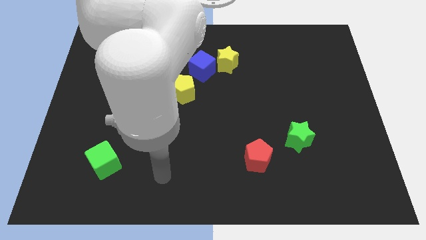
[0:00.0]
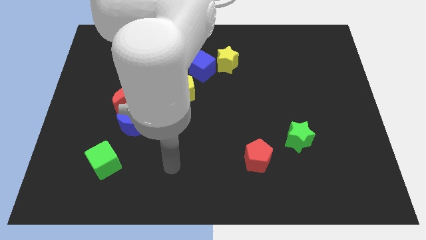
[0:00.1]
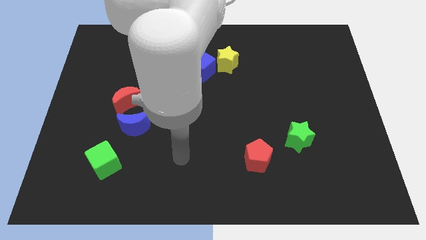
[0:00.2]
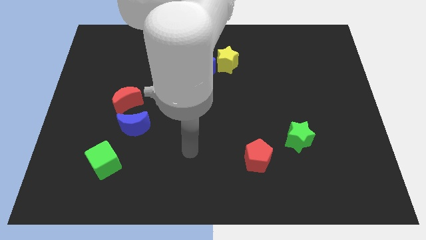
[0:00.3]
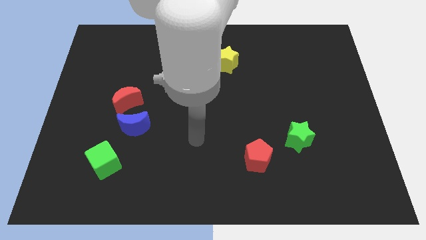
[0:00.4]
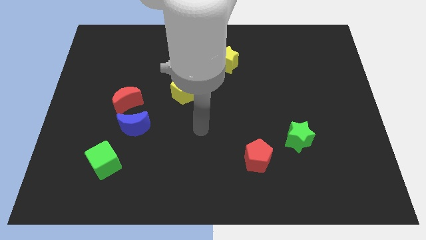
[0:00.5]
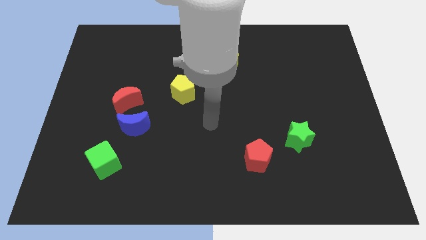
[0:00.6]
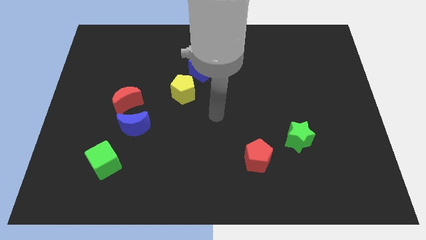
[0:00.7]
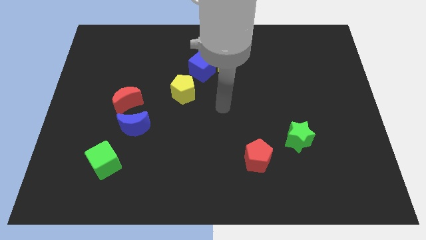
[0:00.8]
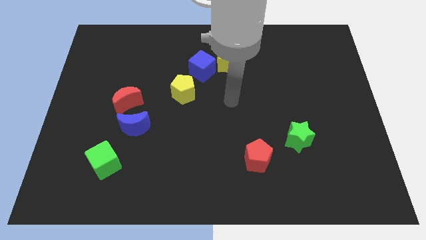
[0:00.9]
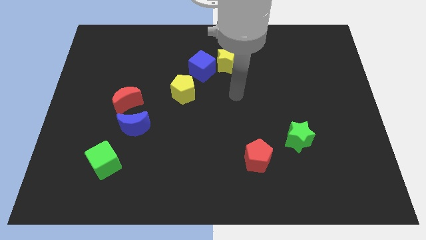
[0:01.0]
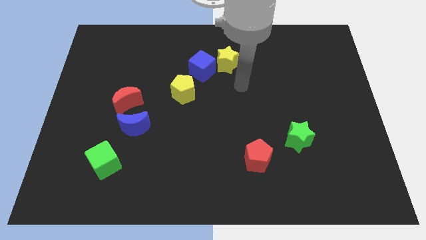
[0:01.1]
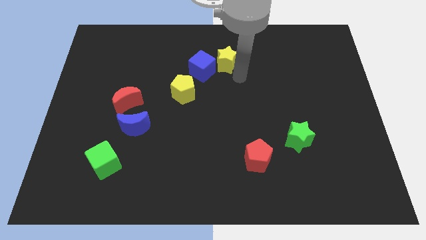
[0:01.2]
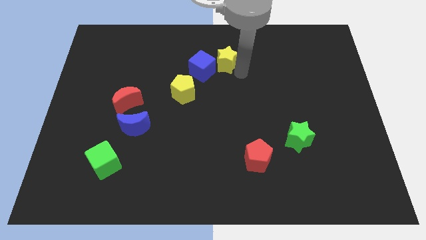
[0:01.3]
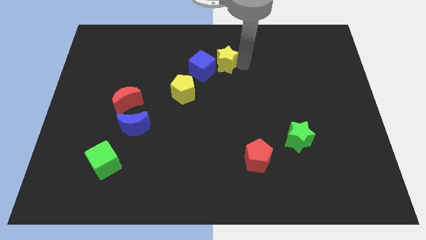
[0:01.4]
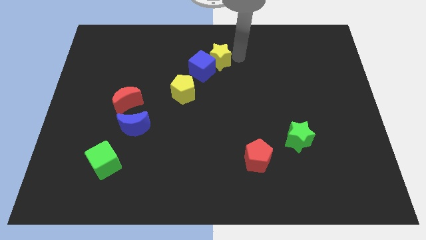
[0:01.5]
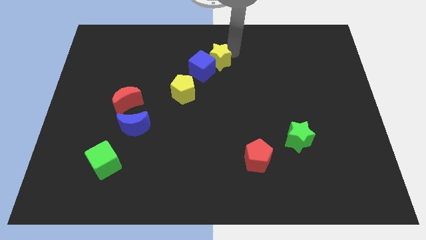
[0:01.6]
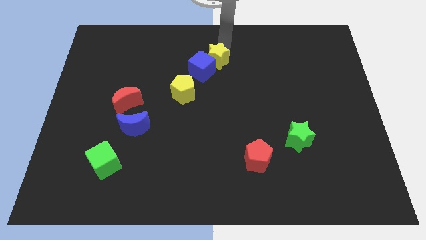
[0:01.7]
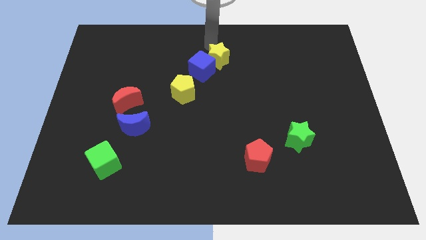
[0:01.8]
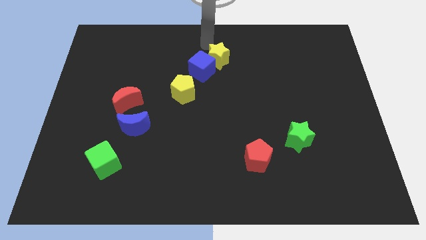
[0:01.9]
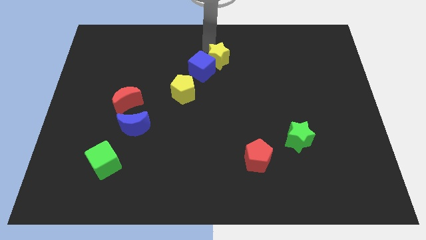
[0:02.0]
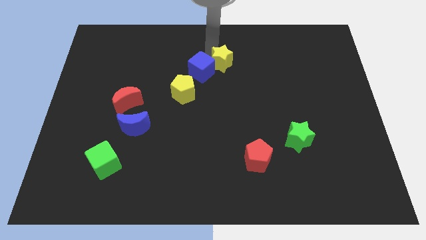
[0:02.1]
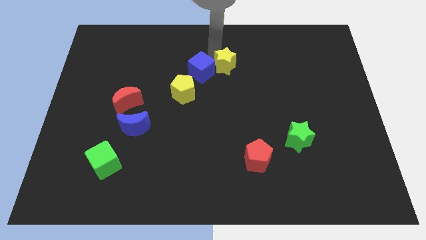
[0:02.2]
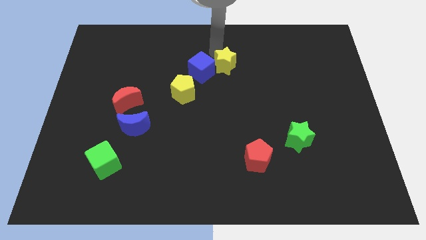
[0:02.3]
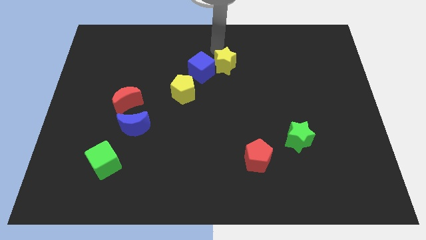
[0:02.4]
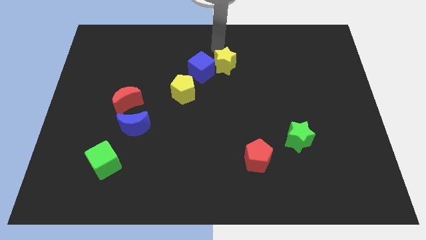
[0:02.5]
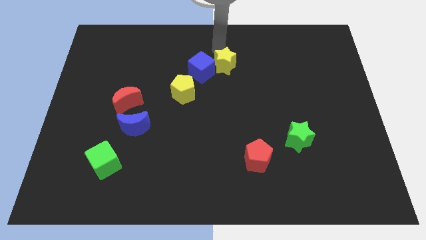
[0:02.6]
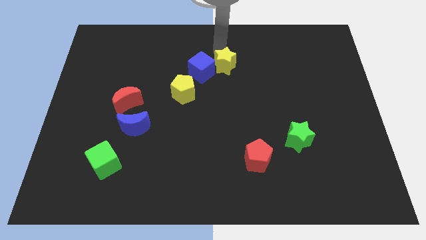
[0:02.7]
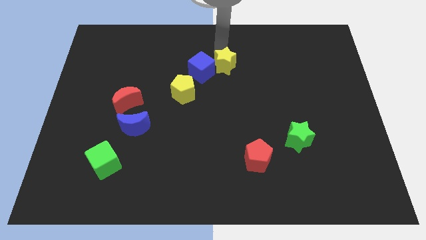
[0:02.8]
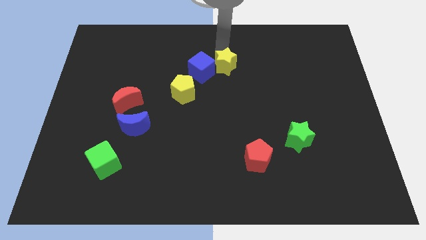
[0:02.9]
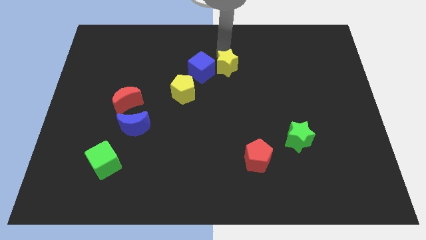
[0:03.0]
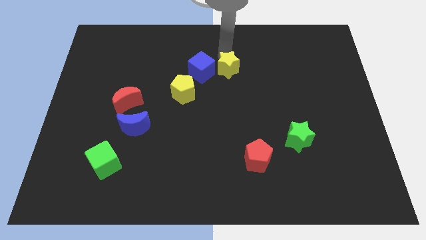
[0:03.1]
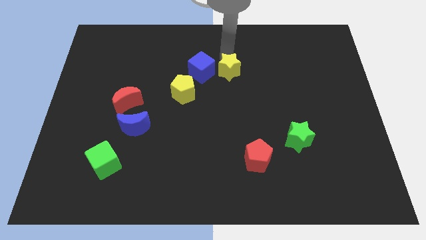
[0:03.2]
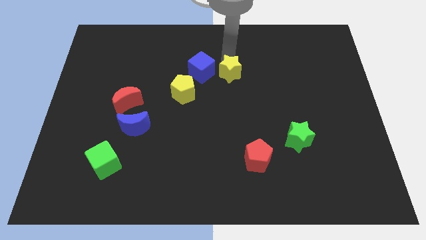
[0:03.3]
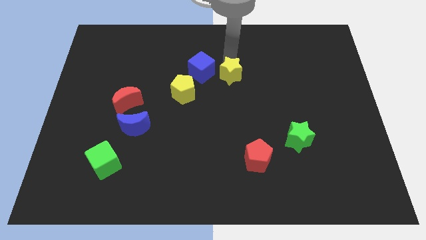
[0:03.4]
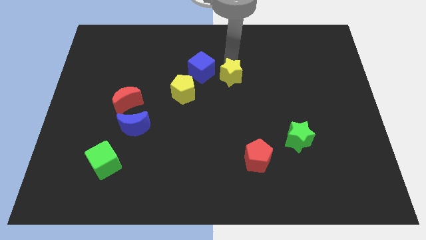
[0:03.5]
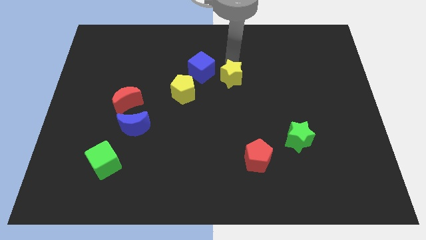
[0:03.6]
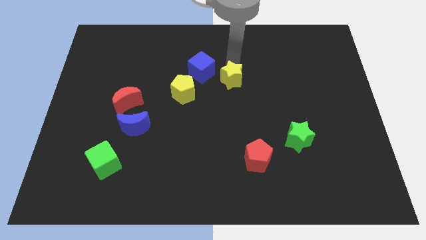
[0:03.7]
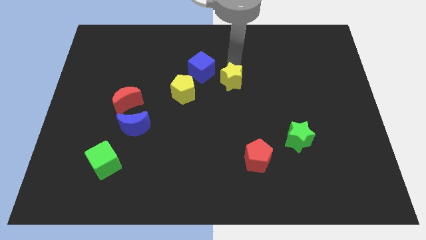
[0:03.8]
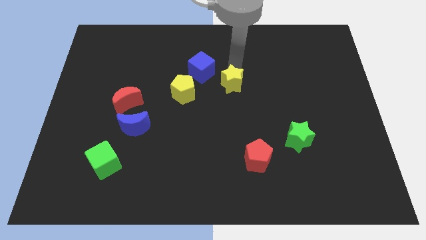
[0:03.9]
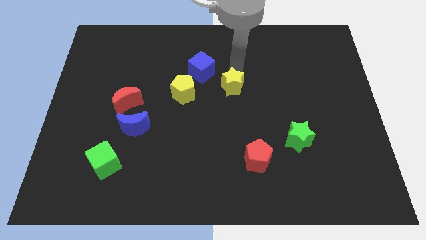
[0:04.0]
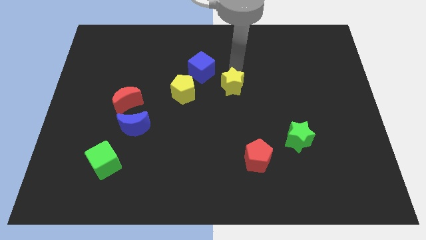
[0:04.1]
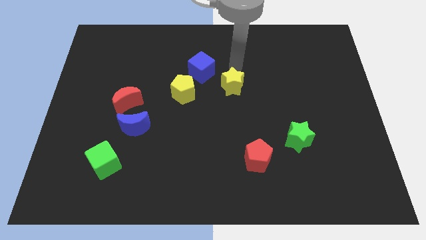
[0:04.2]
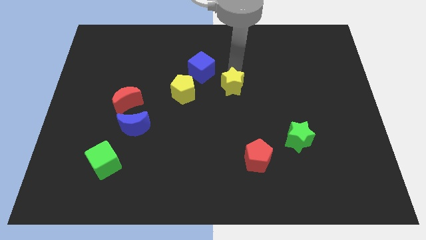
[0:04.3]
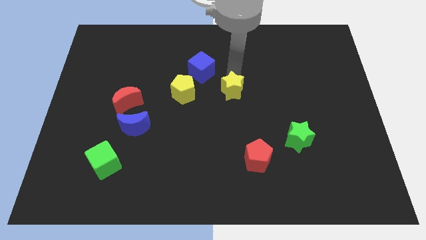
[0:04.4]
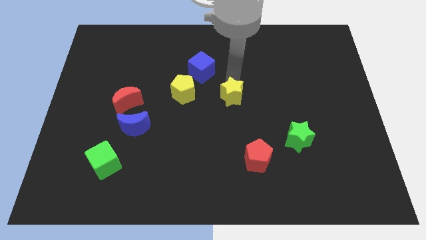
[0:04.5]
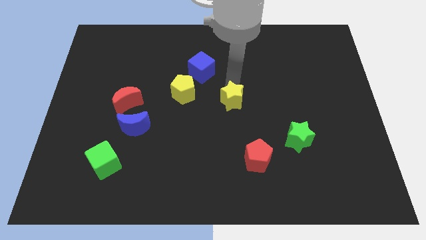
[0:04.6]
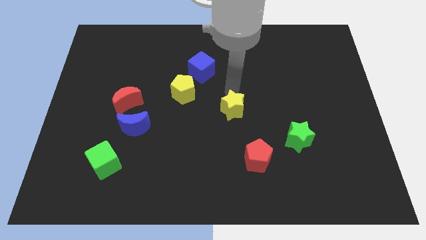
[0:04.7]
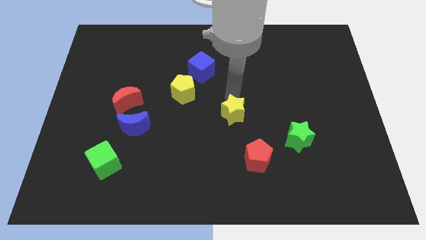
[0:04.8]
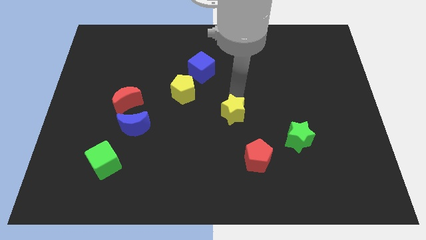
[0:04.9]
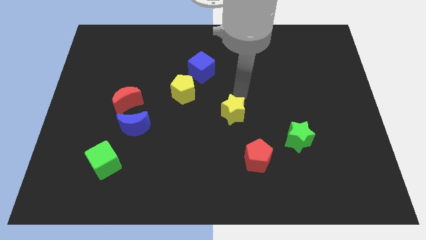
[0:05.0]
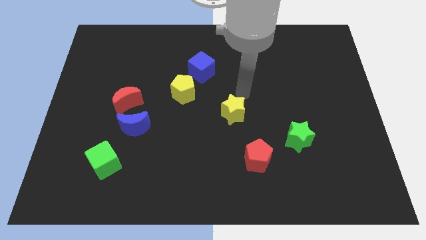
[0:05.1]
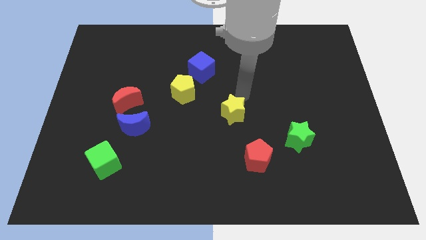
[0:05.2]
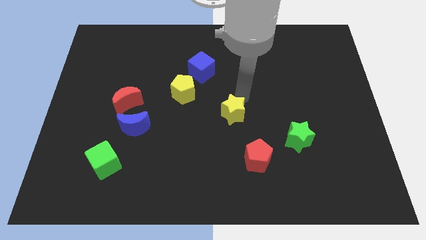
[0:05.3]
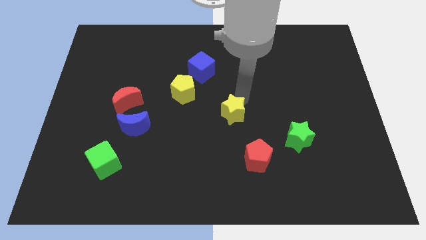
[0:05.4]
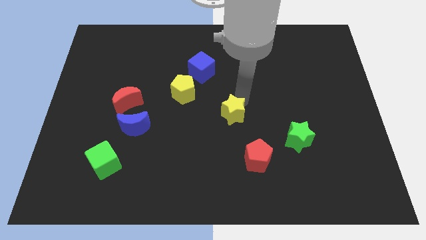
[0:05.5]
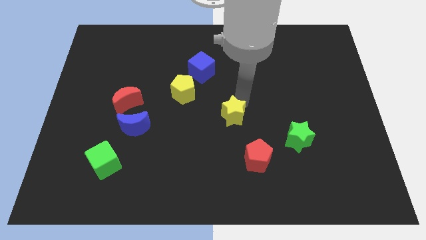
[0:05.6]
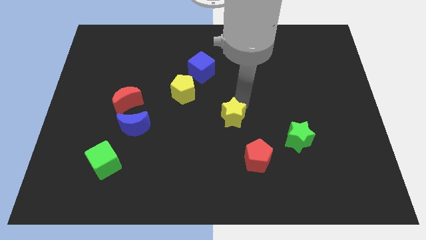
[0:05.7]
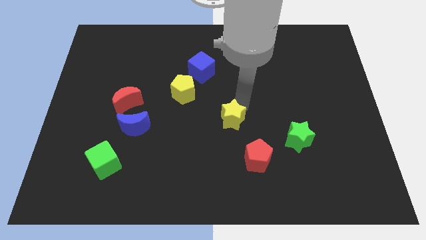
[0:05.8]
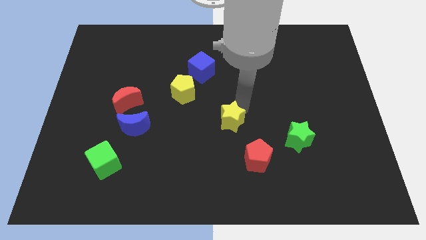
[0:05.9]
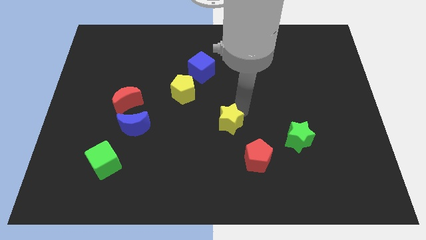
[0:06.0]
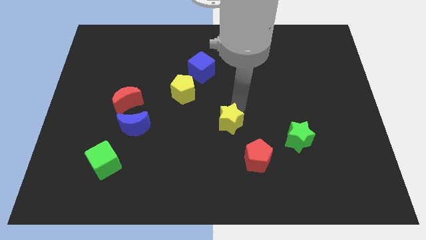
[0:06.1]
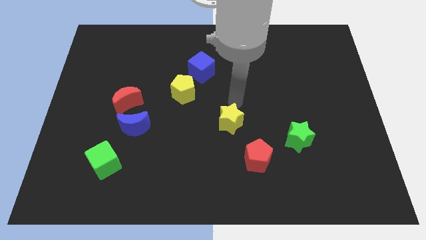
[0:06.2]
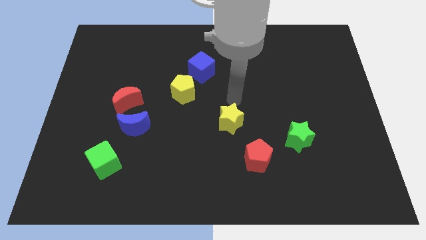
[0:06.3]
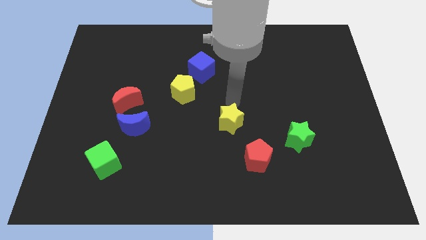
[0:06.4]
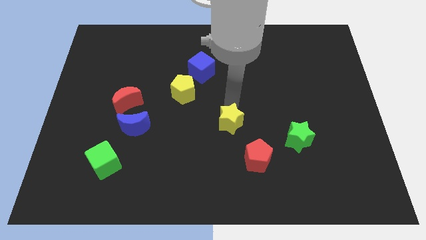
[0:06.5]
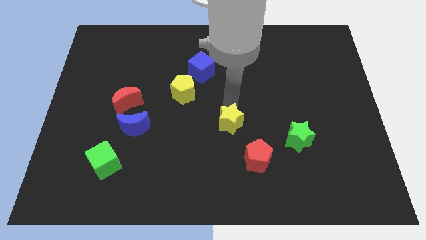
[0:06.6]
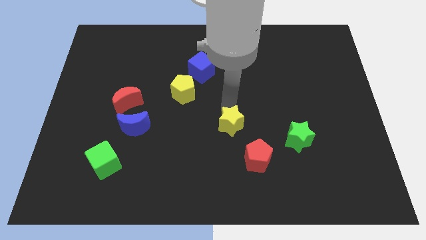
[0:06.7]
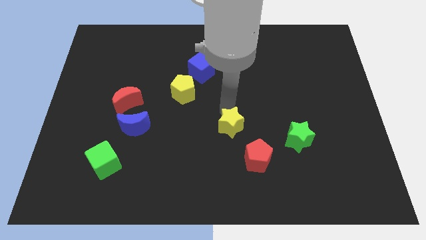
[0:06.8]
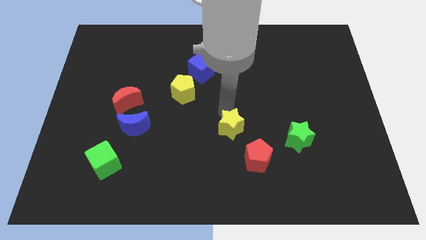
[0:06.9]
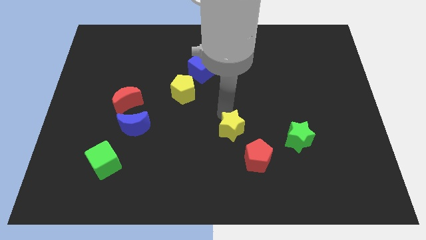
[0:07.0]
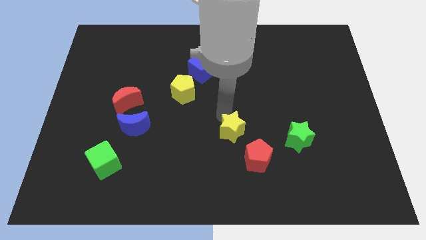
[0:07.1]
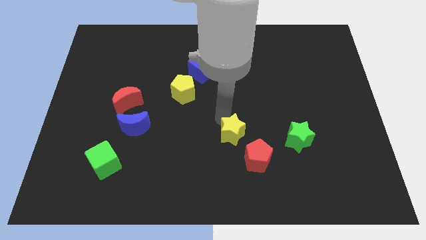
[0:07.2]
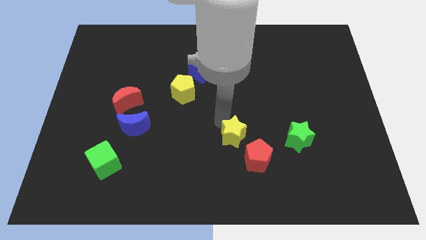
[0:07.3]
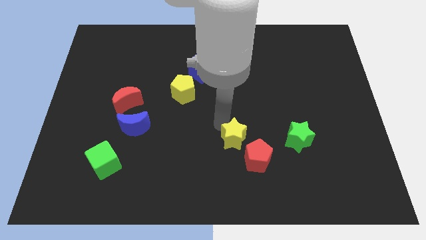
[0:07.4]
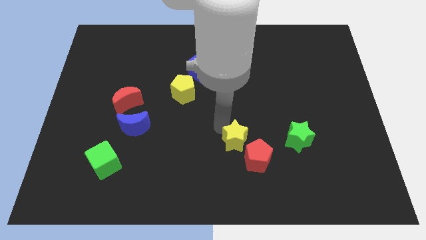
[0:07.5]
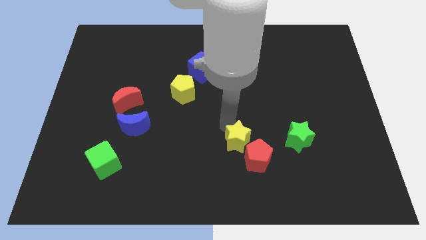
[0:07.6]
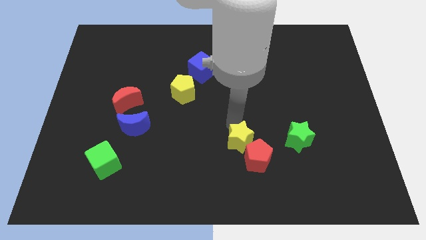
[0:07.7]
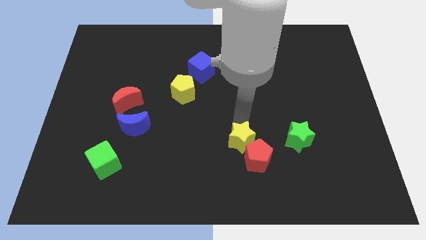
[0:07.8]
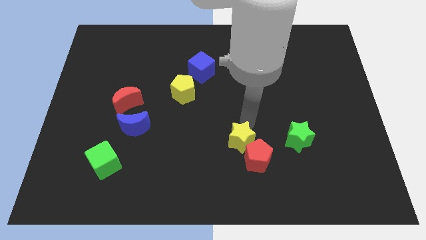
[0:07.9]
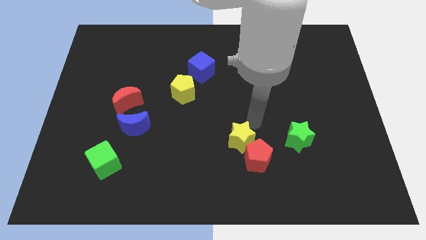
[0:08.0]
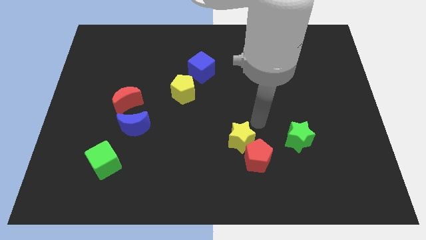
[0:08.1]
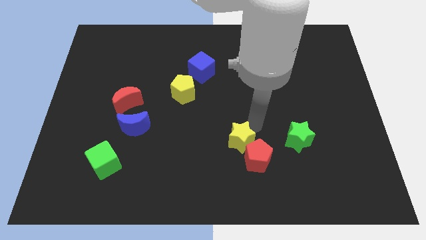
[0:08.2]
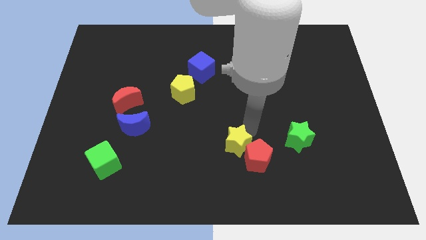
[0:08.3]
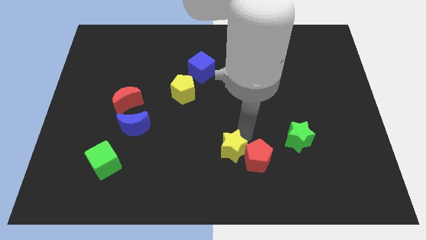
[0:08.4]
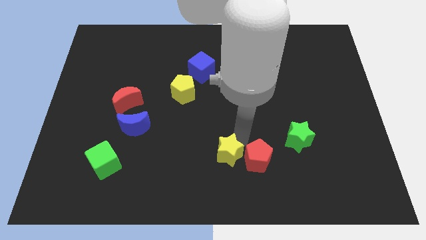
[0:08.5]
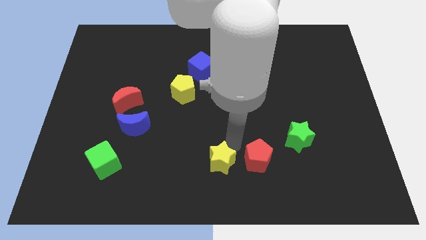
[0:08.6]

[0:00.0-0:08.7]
push the yellow star to the bottom
